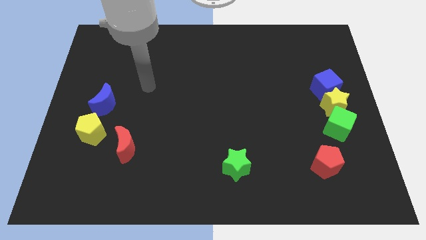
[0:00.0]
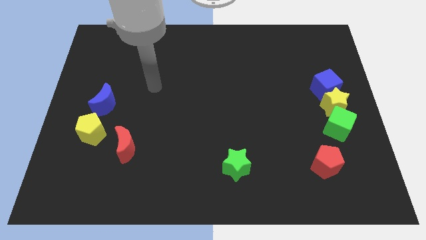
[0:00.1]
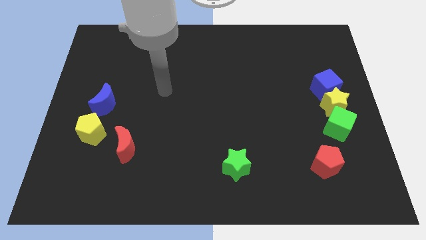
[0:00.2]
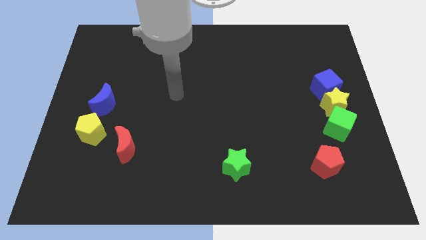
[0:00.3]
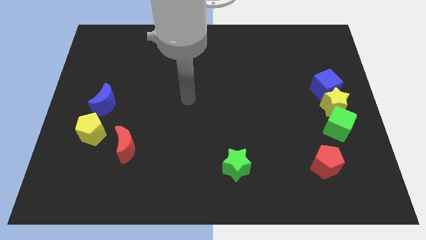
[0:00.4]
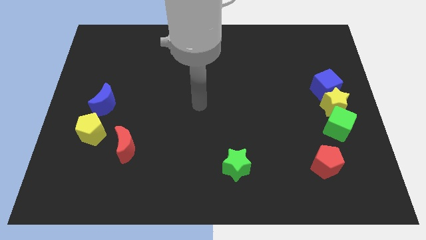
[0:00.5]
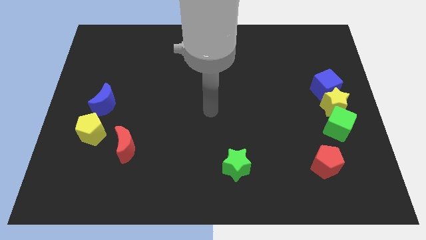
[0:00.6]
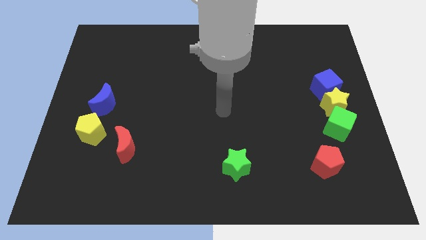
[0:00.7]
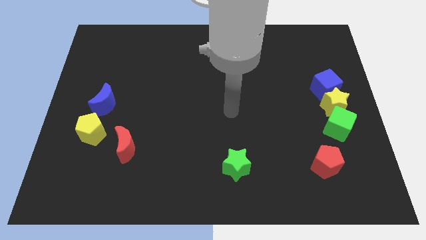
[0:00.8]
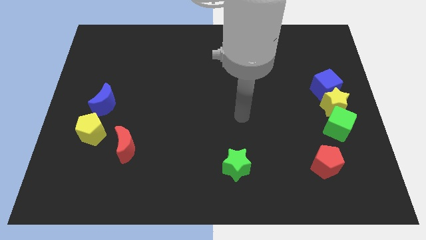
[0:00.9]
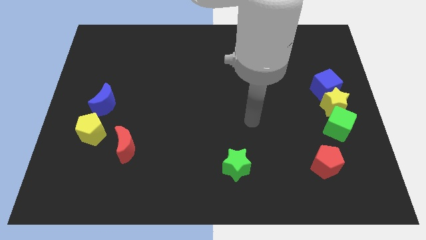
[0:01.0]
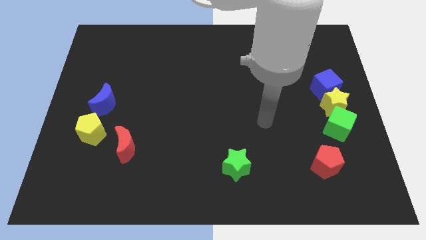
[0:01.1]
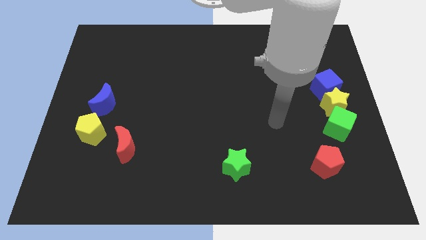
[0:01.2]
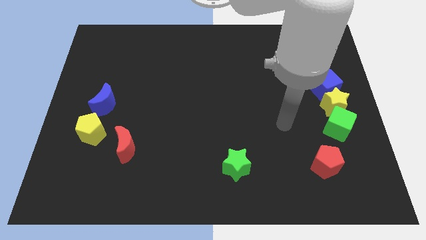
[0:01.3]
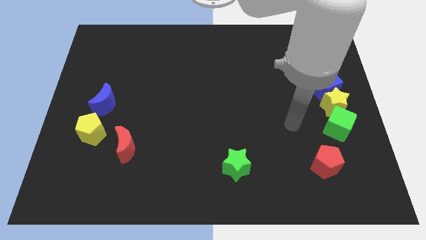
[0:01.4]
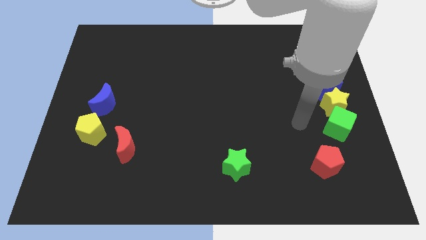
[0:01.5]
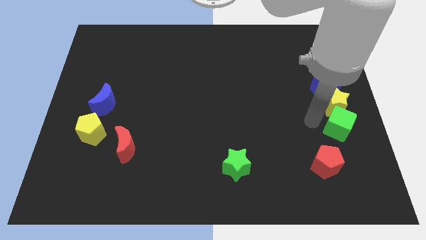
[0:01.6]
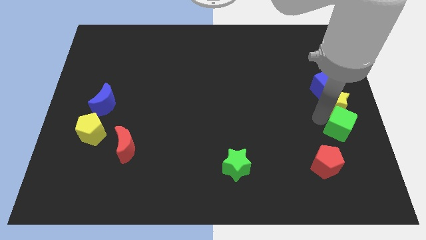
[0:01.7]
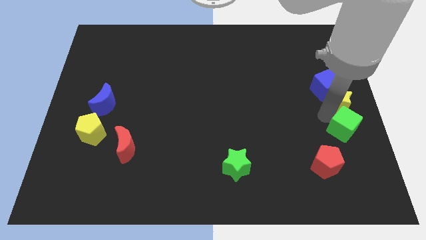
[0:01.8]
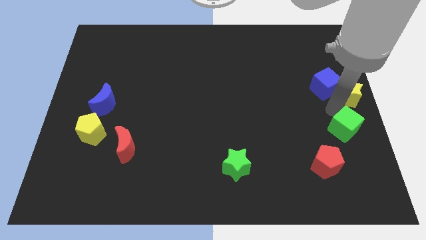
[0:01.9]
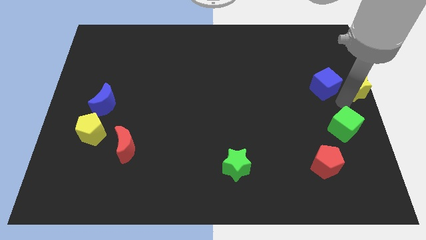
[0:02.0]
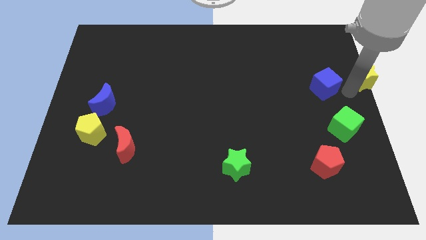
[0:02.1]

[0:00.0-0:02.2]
move the blue cube away from the yellow star

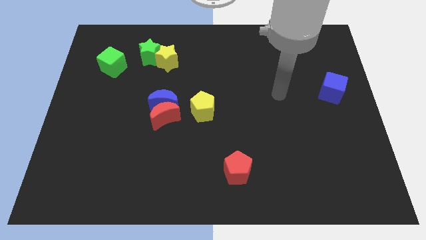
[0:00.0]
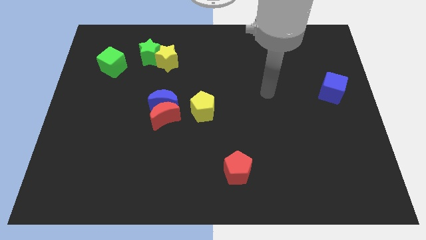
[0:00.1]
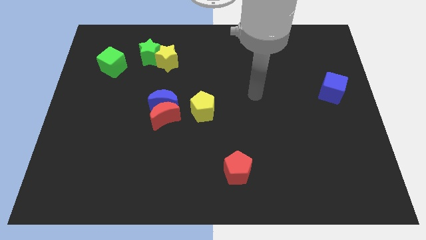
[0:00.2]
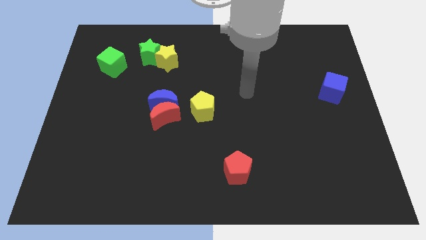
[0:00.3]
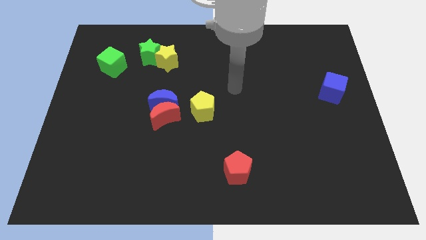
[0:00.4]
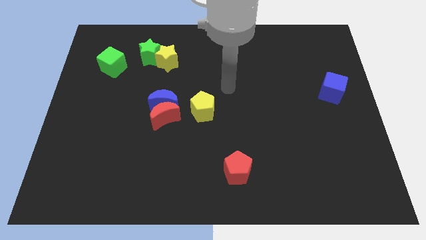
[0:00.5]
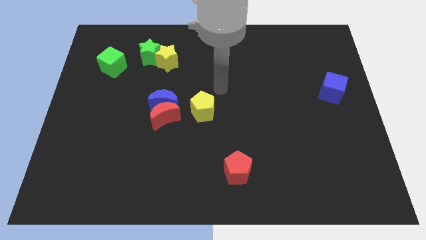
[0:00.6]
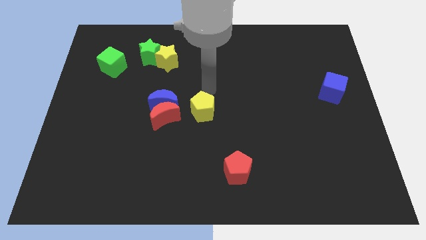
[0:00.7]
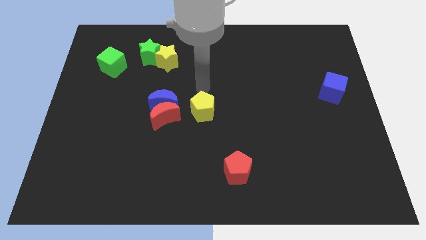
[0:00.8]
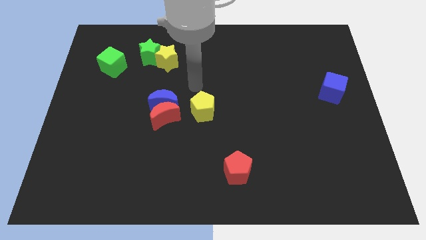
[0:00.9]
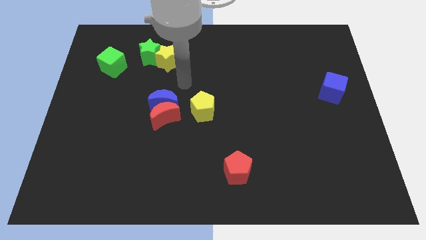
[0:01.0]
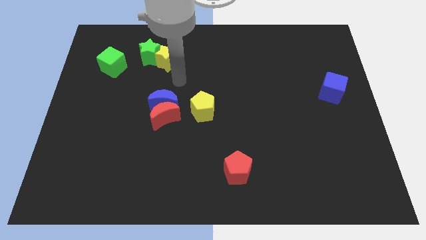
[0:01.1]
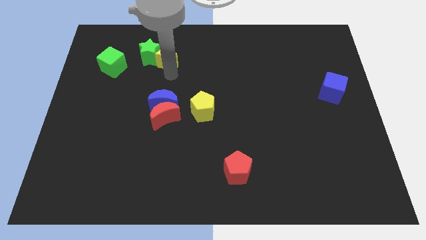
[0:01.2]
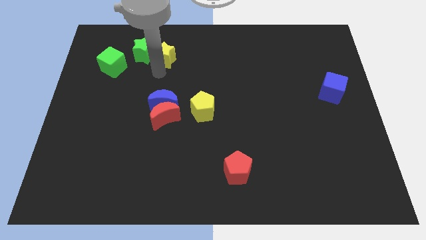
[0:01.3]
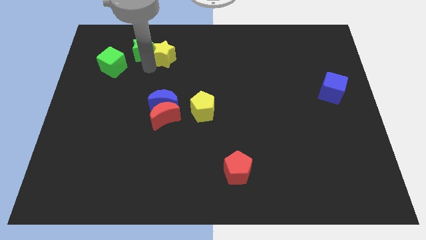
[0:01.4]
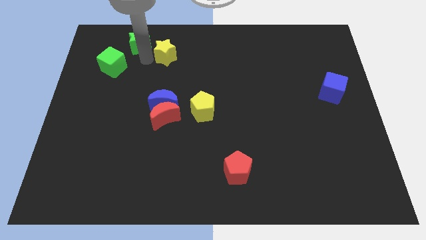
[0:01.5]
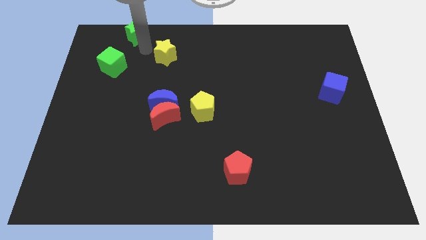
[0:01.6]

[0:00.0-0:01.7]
move the yellow star away from the green star

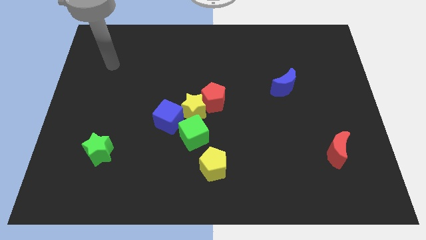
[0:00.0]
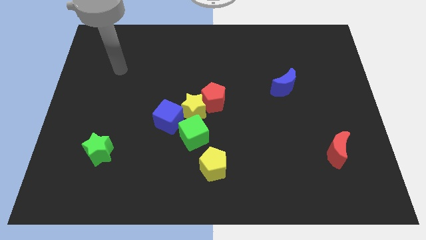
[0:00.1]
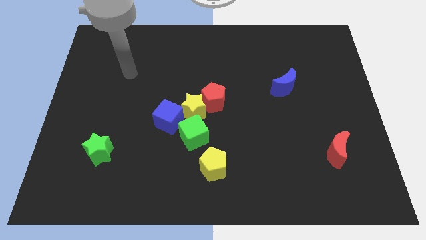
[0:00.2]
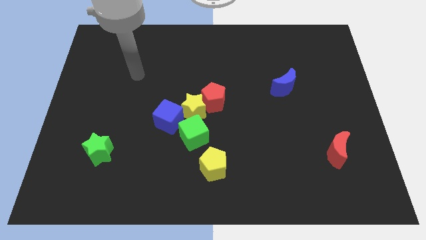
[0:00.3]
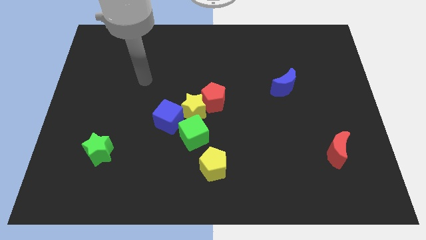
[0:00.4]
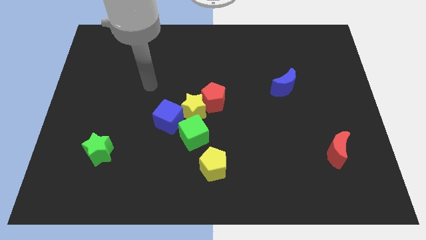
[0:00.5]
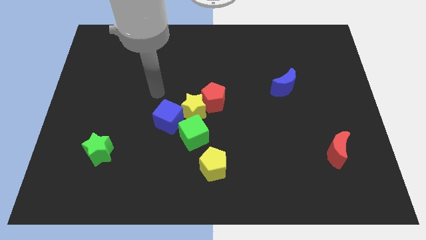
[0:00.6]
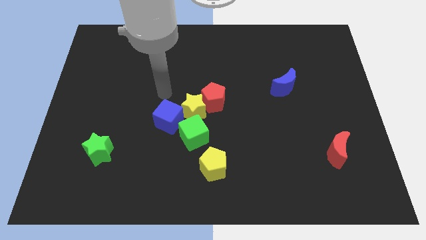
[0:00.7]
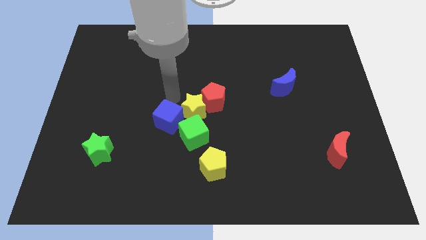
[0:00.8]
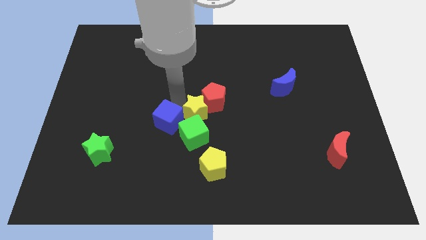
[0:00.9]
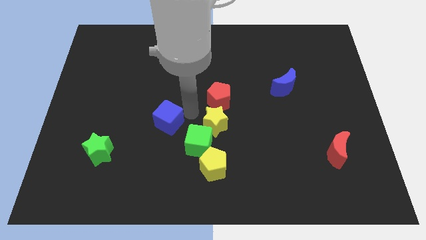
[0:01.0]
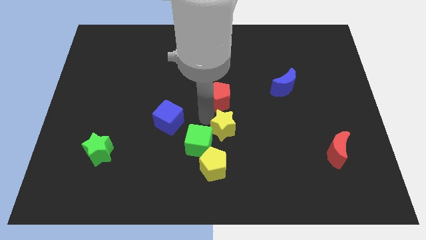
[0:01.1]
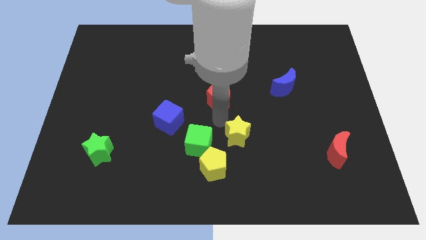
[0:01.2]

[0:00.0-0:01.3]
pull the red pentagon apart from the yellow star

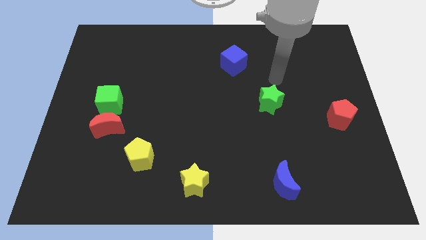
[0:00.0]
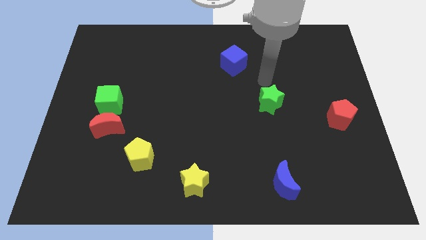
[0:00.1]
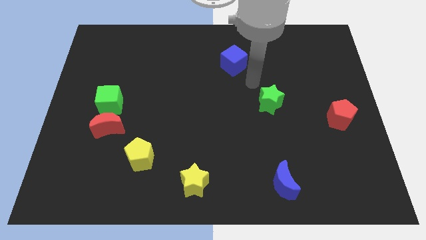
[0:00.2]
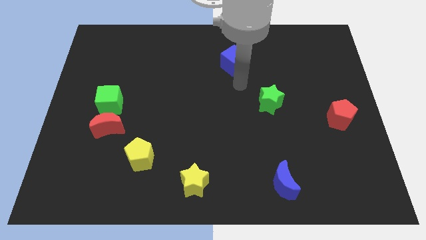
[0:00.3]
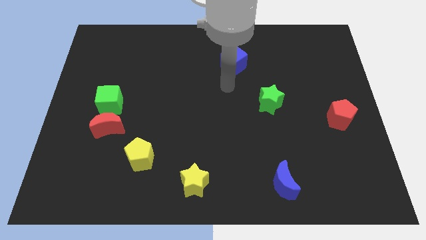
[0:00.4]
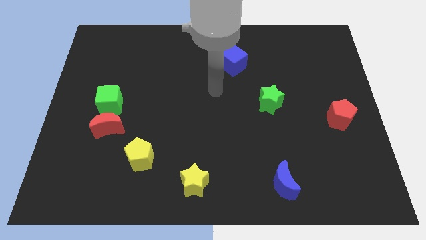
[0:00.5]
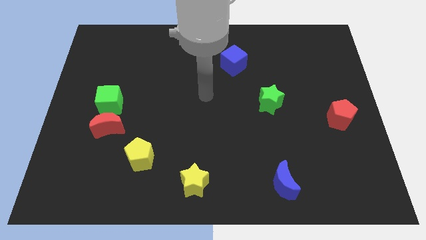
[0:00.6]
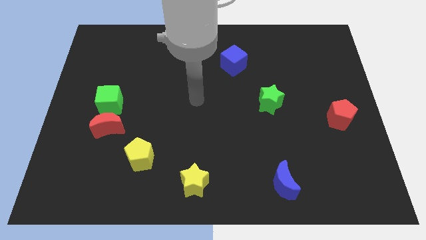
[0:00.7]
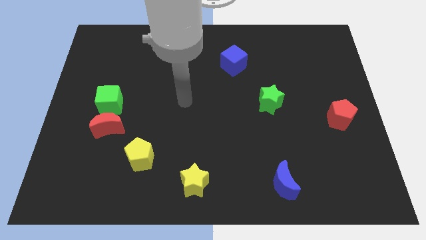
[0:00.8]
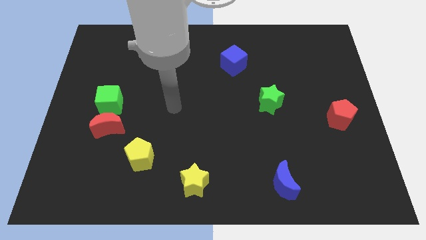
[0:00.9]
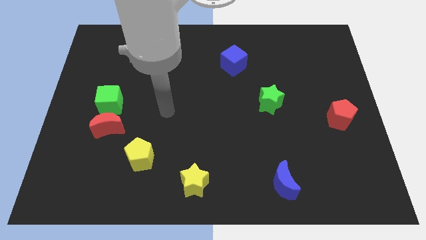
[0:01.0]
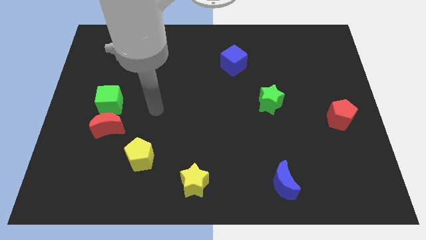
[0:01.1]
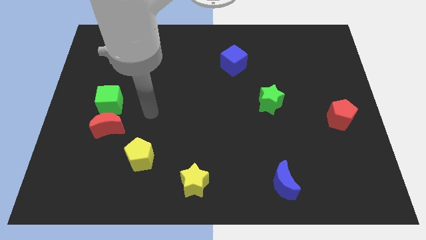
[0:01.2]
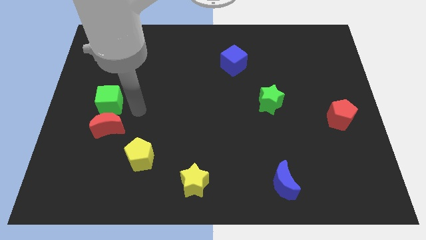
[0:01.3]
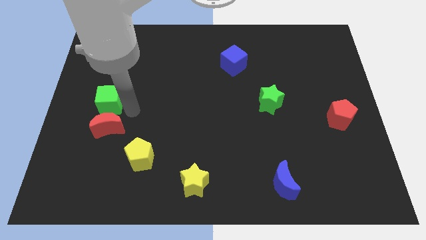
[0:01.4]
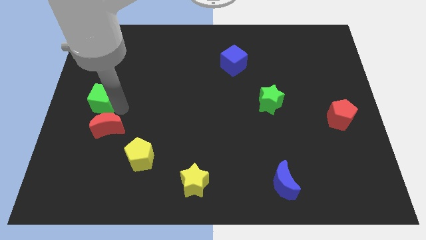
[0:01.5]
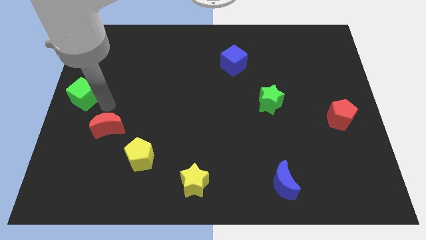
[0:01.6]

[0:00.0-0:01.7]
pull the red moon apart from the green cube

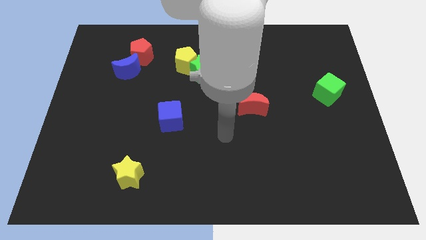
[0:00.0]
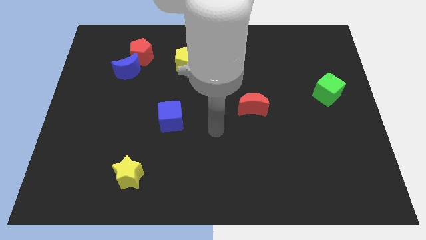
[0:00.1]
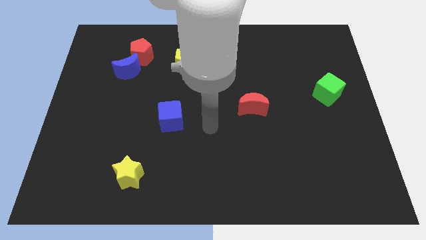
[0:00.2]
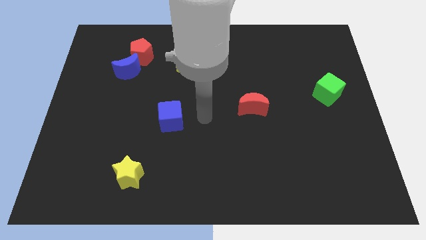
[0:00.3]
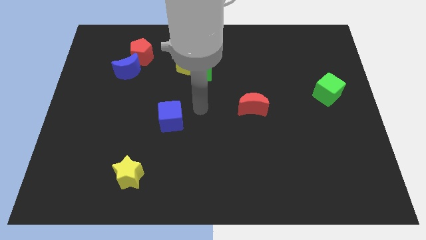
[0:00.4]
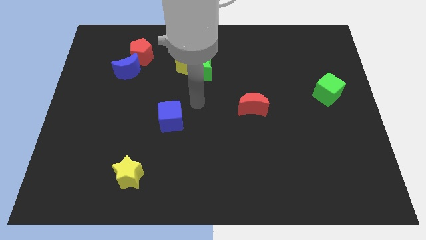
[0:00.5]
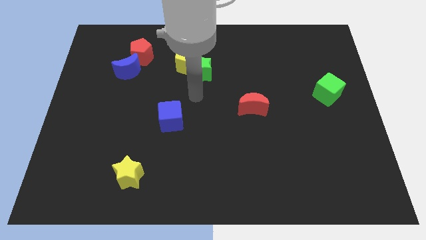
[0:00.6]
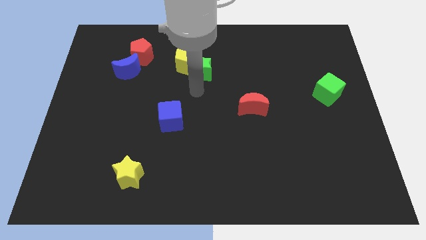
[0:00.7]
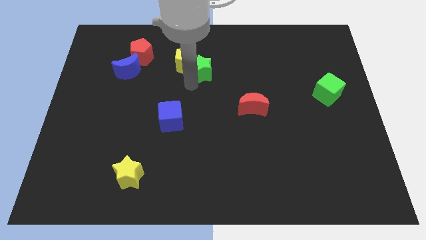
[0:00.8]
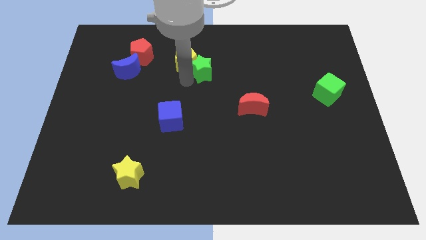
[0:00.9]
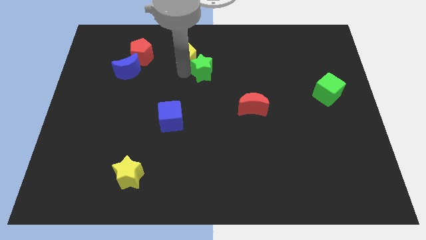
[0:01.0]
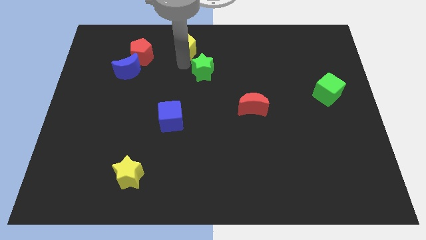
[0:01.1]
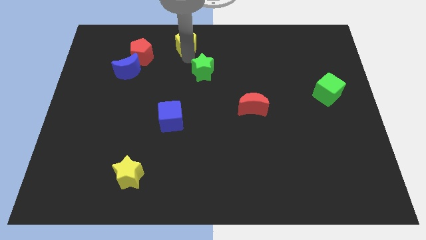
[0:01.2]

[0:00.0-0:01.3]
pull the green star apart from the yellow pentagon

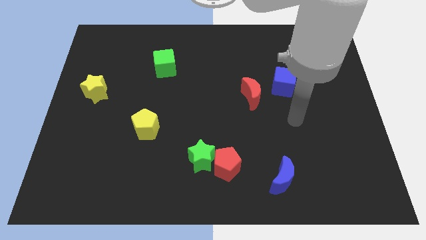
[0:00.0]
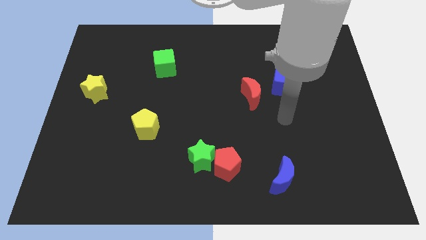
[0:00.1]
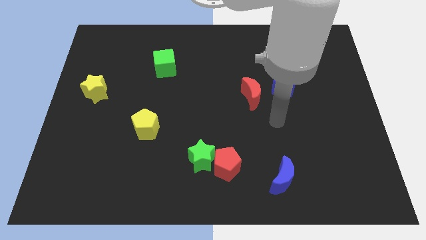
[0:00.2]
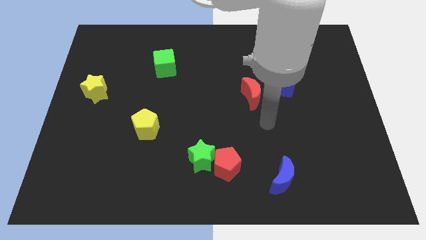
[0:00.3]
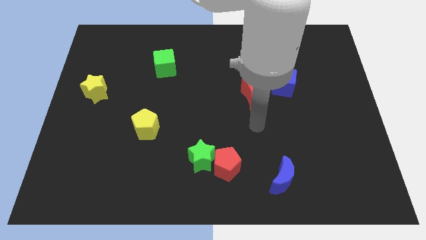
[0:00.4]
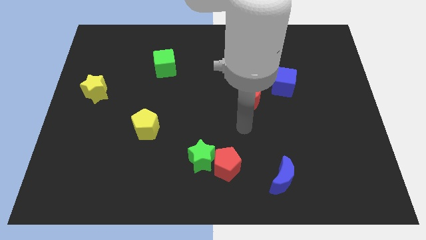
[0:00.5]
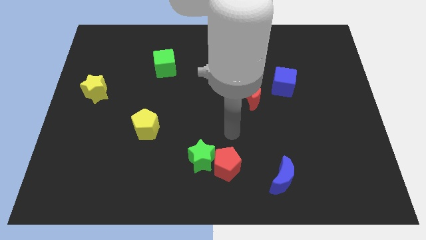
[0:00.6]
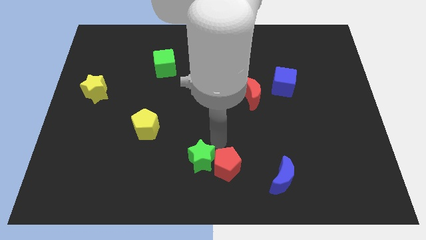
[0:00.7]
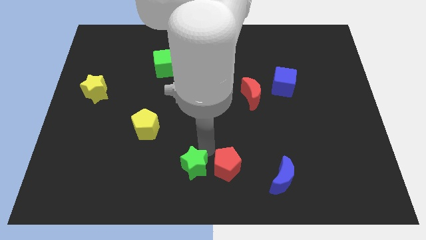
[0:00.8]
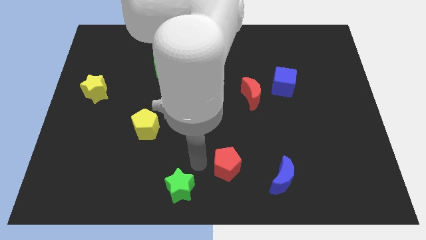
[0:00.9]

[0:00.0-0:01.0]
pull the red pentagon apart from the green star
